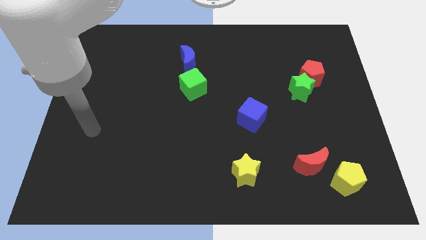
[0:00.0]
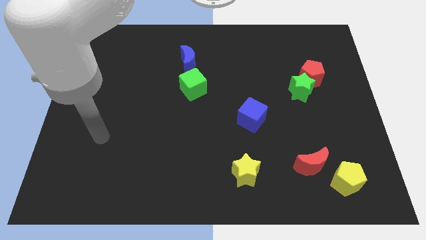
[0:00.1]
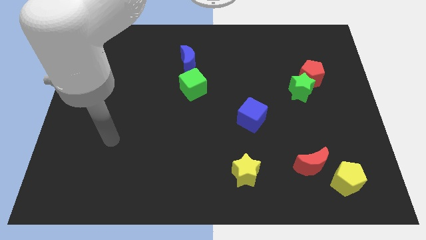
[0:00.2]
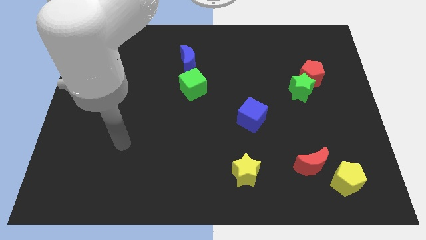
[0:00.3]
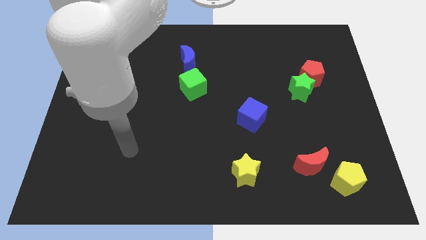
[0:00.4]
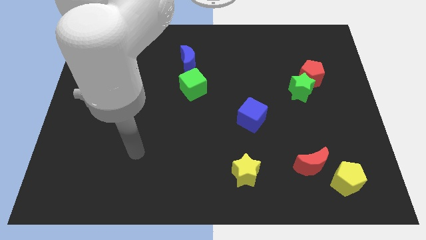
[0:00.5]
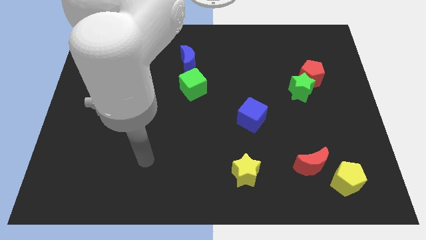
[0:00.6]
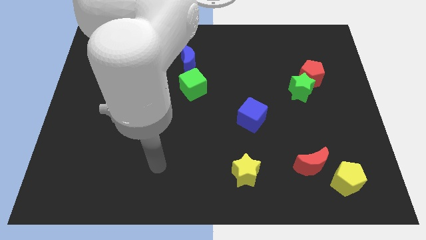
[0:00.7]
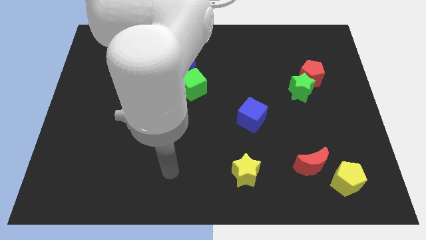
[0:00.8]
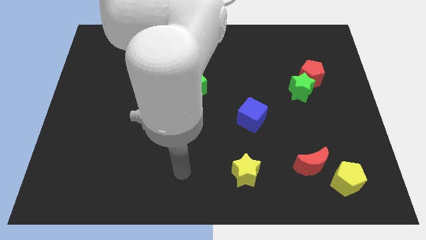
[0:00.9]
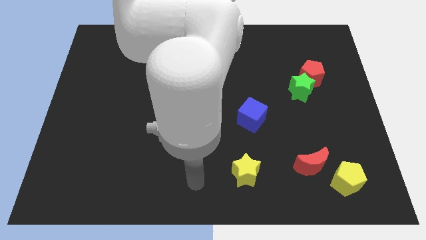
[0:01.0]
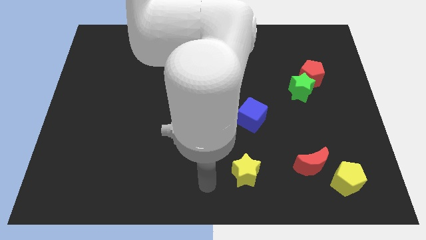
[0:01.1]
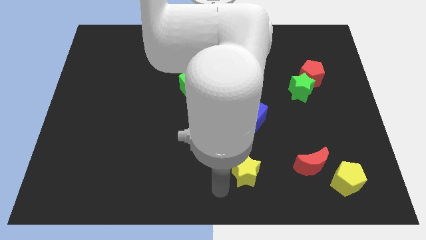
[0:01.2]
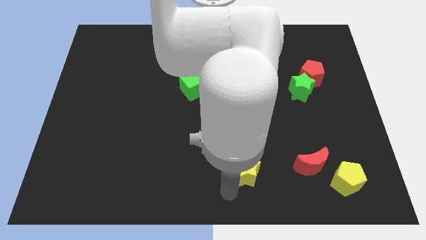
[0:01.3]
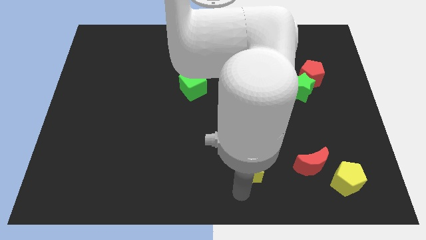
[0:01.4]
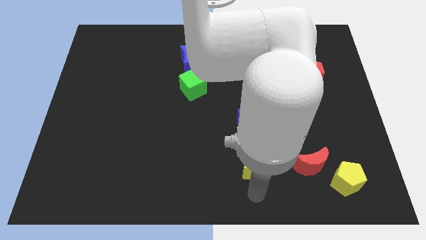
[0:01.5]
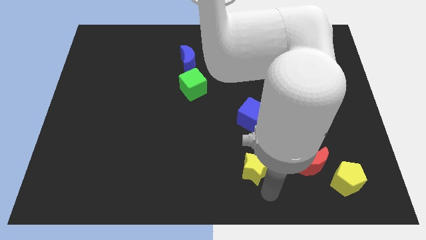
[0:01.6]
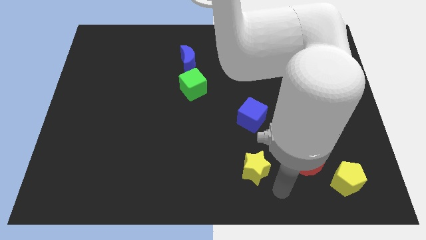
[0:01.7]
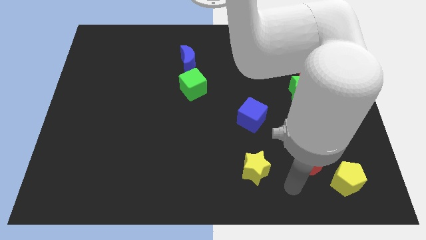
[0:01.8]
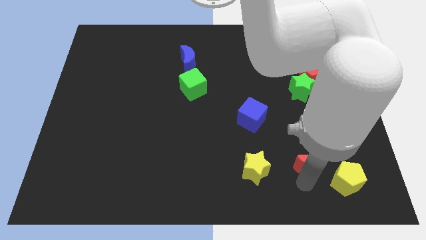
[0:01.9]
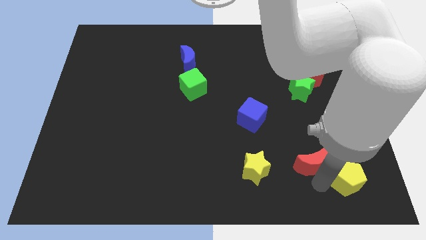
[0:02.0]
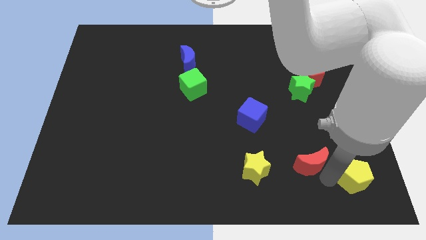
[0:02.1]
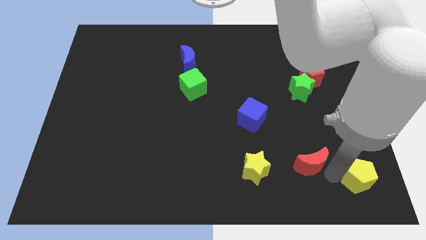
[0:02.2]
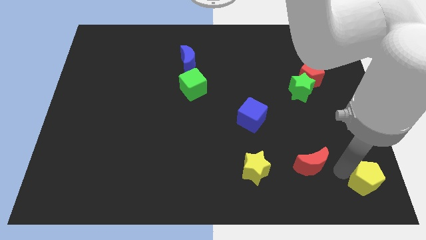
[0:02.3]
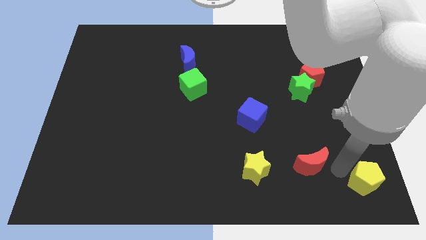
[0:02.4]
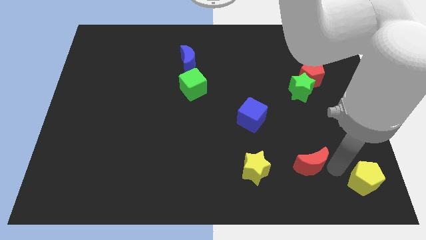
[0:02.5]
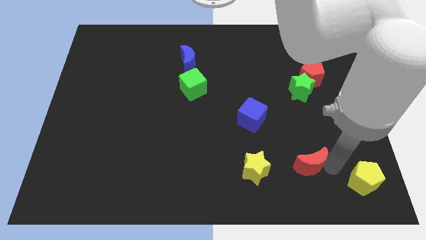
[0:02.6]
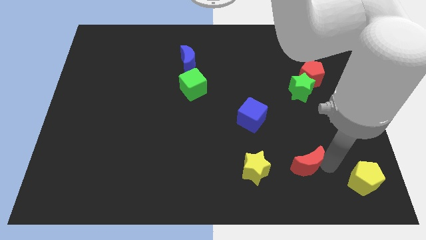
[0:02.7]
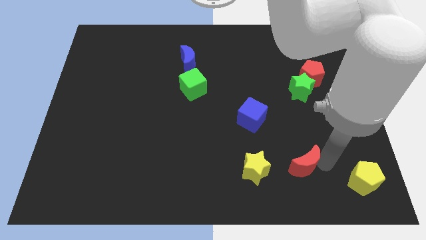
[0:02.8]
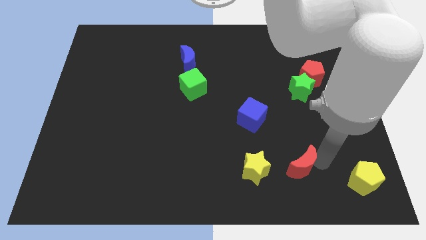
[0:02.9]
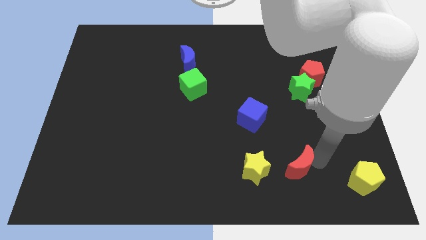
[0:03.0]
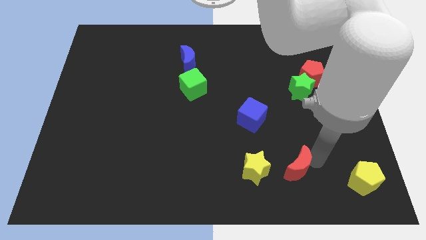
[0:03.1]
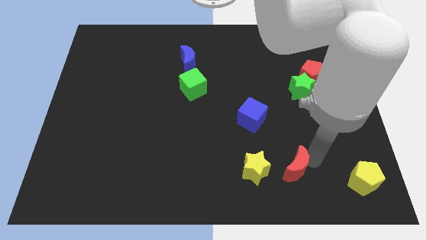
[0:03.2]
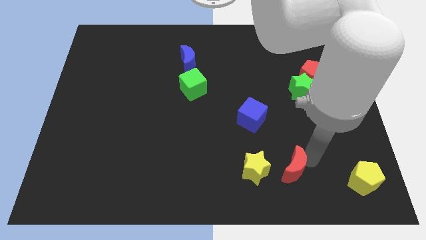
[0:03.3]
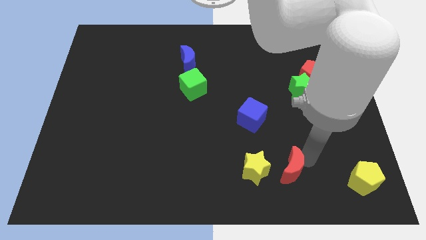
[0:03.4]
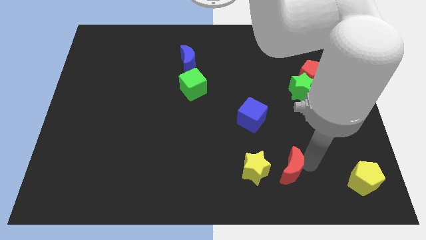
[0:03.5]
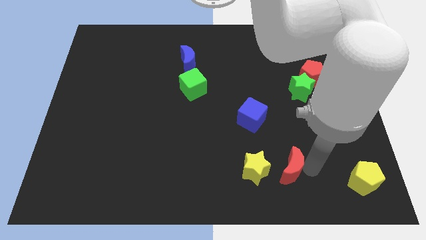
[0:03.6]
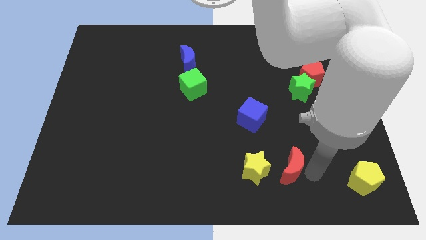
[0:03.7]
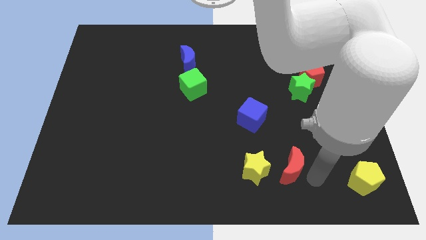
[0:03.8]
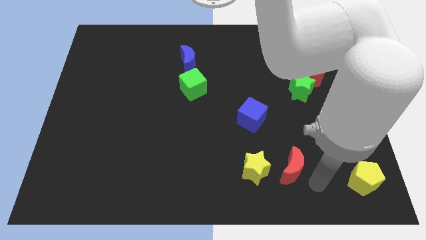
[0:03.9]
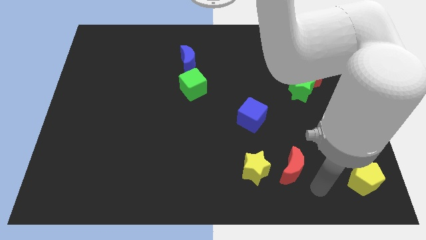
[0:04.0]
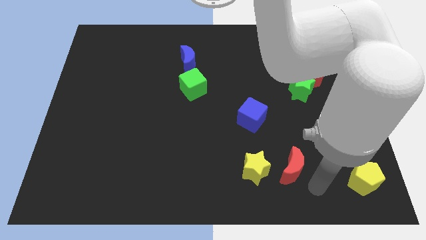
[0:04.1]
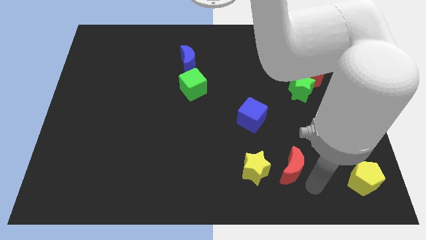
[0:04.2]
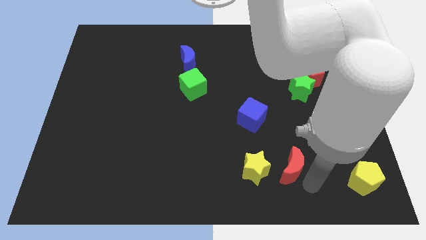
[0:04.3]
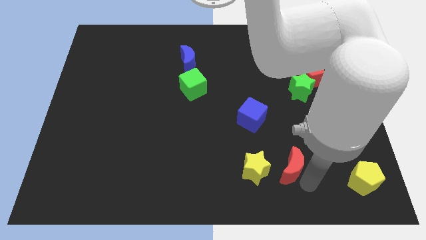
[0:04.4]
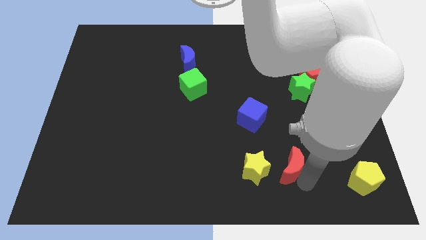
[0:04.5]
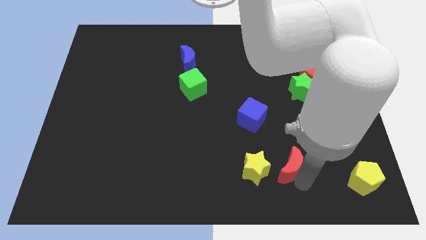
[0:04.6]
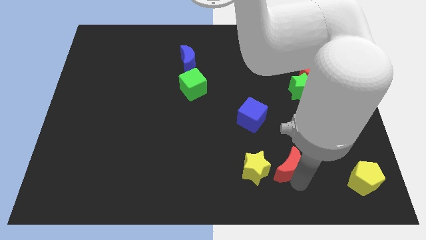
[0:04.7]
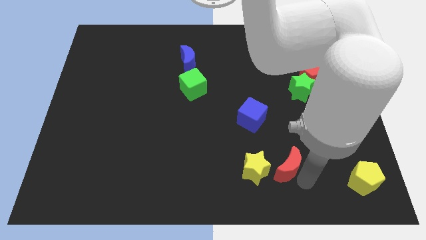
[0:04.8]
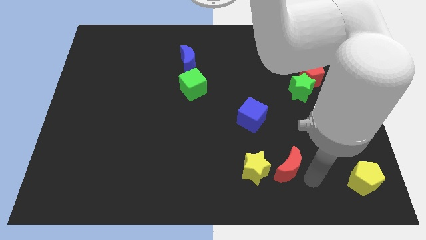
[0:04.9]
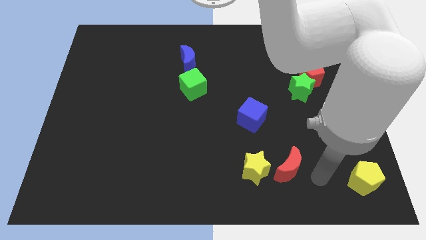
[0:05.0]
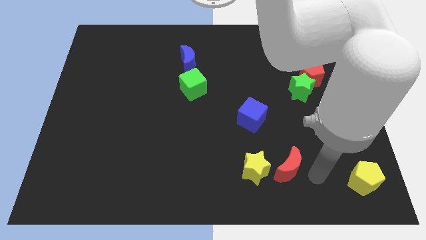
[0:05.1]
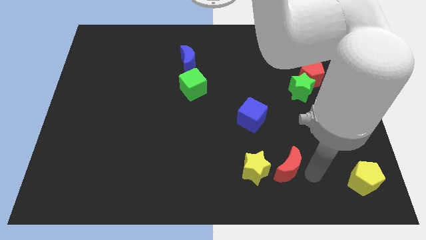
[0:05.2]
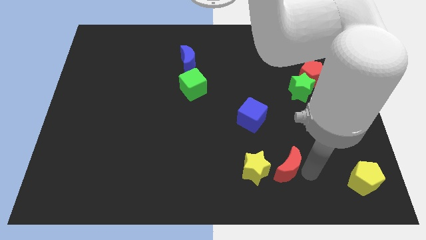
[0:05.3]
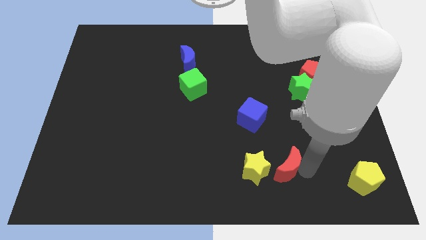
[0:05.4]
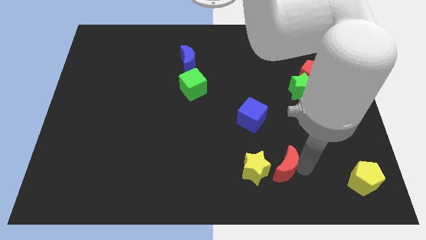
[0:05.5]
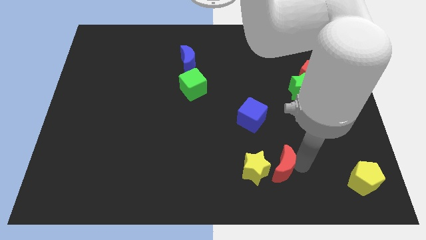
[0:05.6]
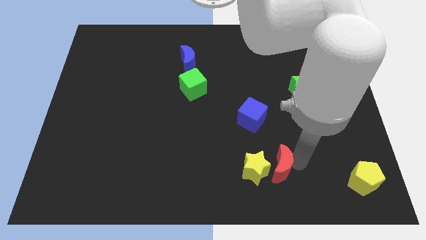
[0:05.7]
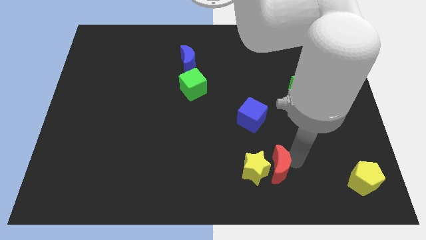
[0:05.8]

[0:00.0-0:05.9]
slide the red moon somewhat to the left

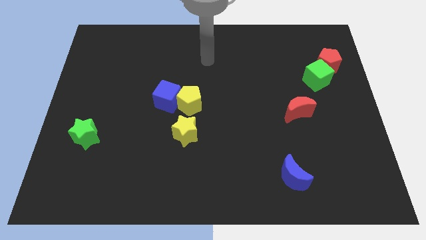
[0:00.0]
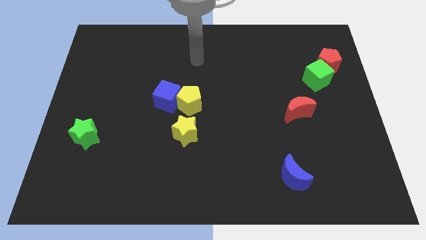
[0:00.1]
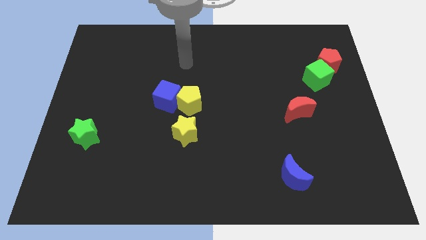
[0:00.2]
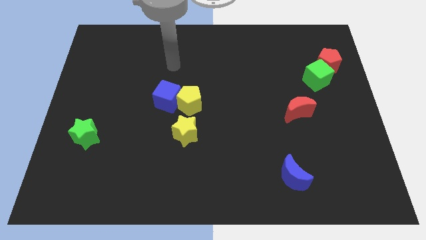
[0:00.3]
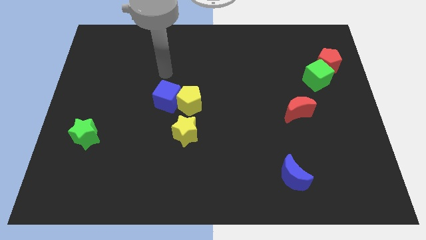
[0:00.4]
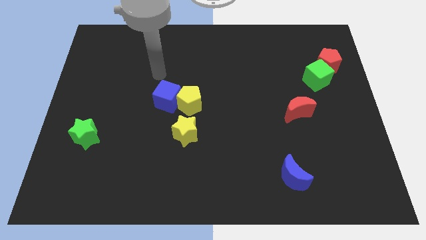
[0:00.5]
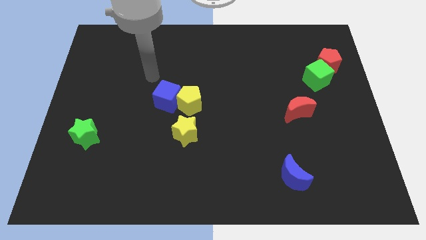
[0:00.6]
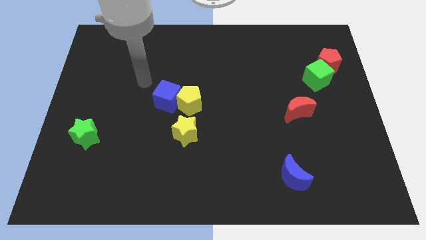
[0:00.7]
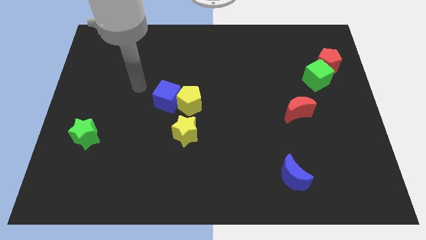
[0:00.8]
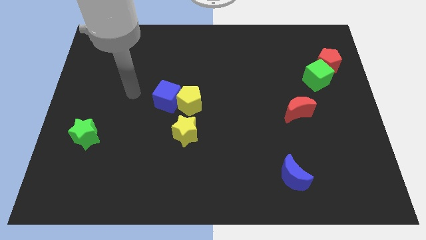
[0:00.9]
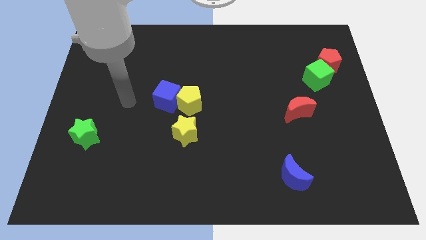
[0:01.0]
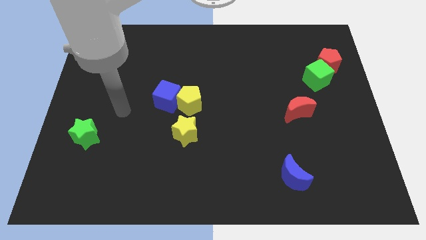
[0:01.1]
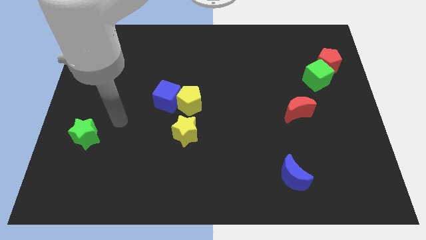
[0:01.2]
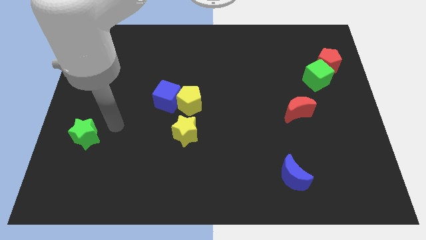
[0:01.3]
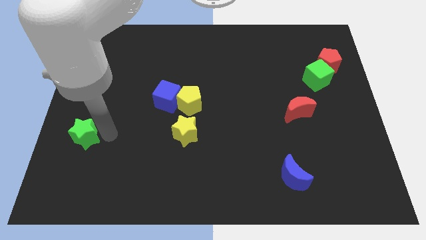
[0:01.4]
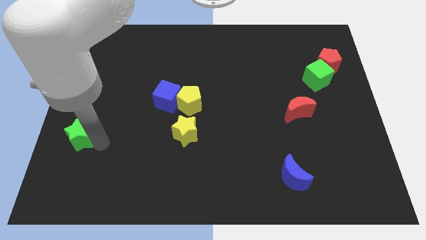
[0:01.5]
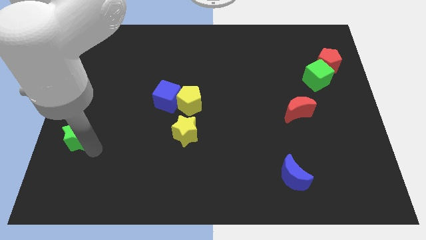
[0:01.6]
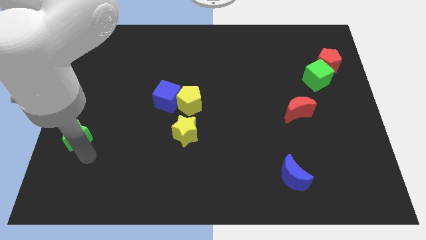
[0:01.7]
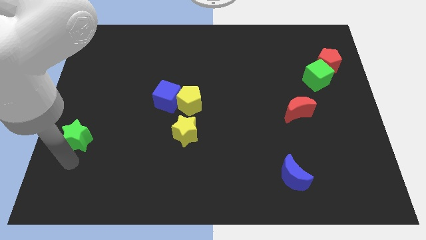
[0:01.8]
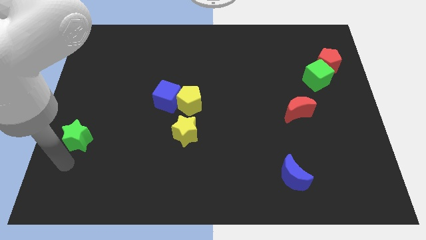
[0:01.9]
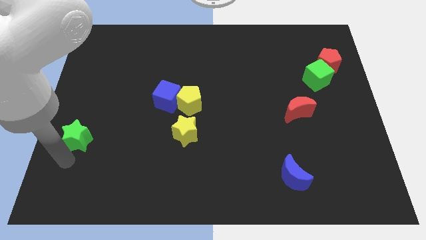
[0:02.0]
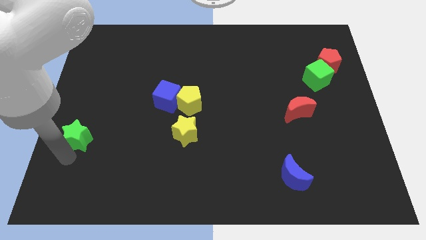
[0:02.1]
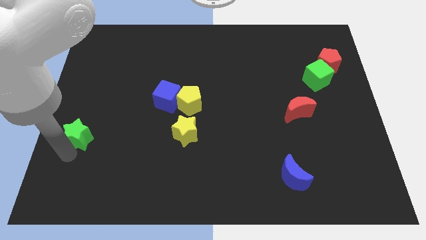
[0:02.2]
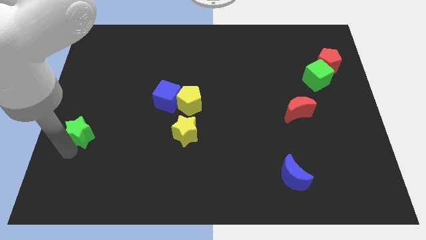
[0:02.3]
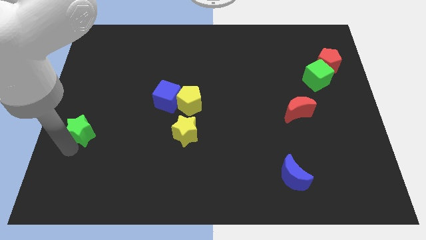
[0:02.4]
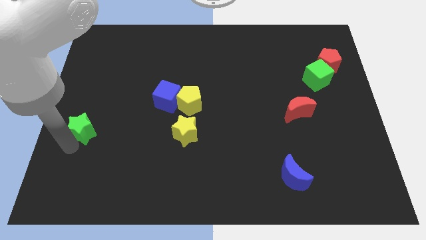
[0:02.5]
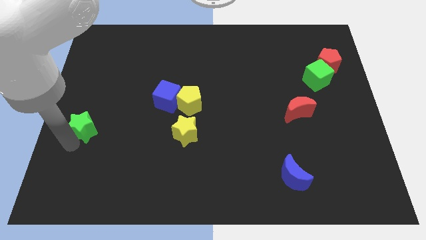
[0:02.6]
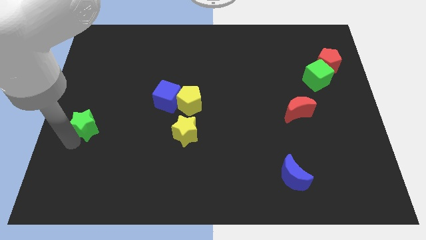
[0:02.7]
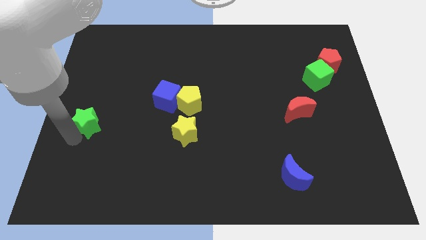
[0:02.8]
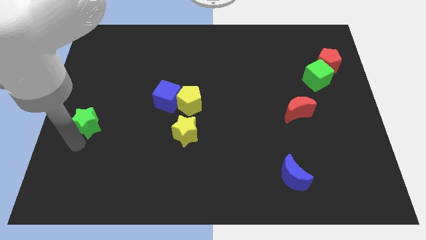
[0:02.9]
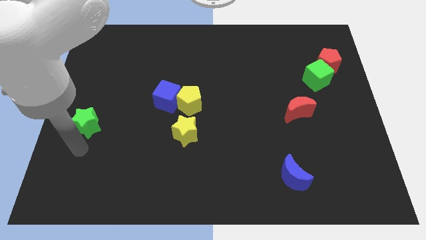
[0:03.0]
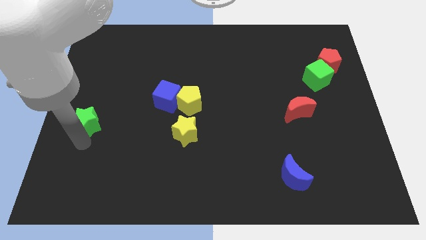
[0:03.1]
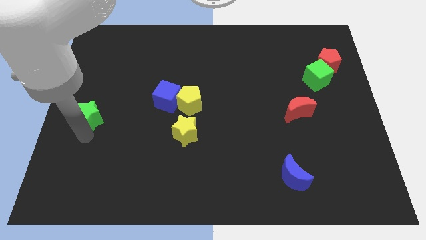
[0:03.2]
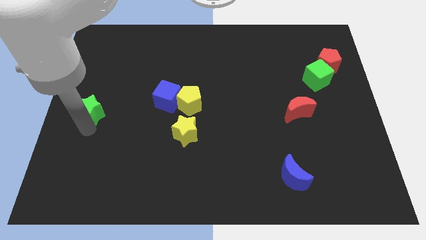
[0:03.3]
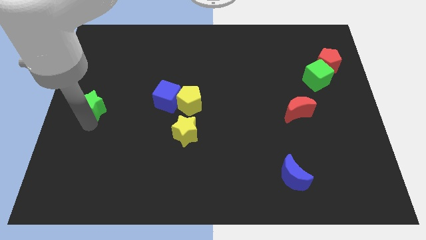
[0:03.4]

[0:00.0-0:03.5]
slide the green star a little bit up
